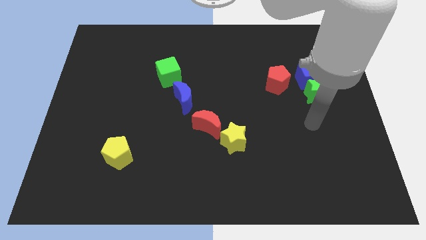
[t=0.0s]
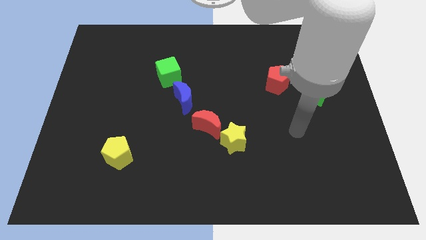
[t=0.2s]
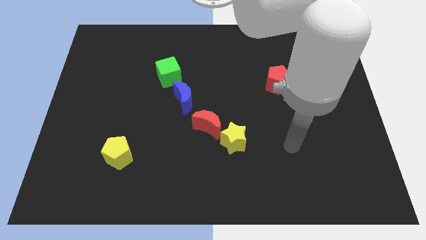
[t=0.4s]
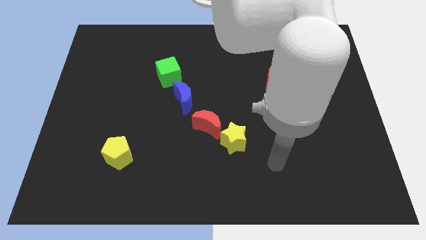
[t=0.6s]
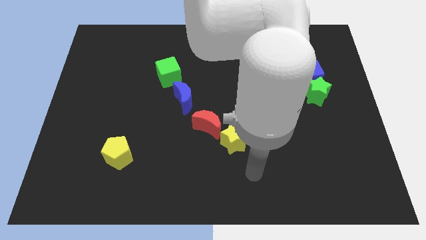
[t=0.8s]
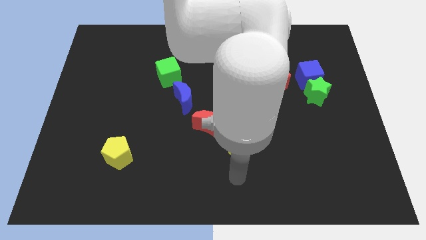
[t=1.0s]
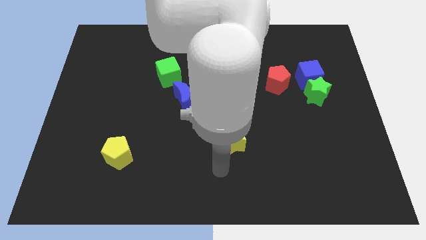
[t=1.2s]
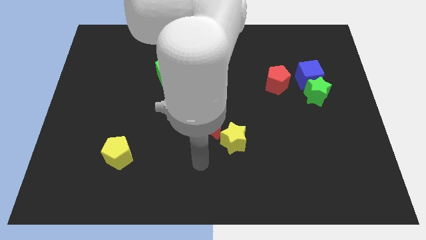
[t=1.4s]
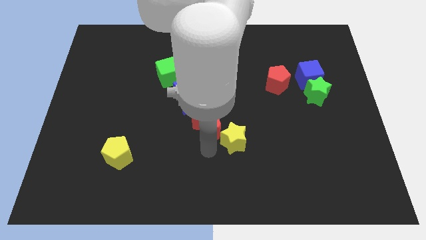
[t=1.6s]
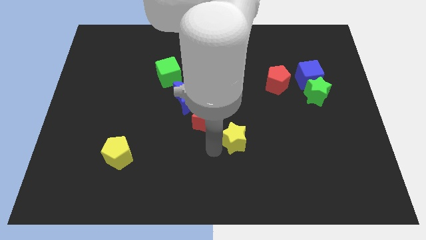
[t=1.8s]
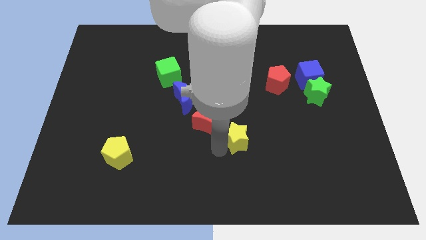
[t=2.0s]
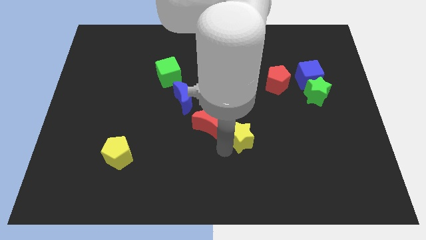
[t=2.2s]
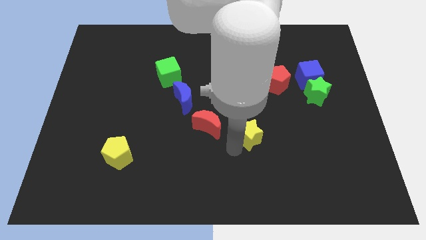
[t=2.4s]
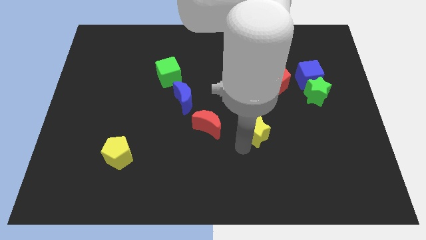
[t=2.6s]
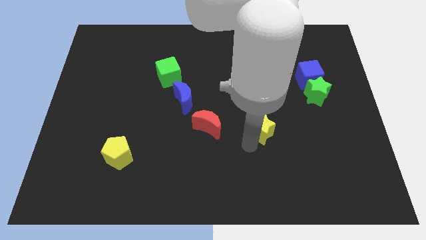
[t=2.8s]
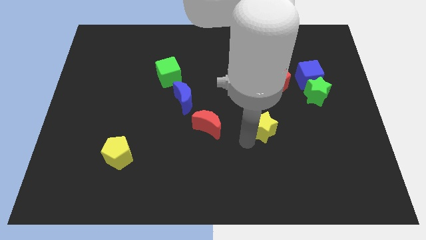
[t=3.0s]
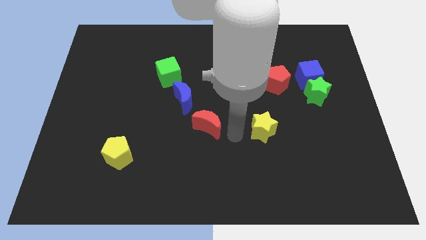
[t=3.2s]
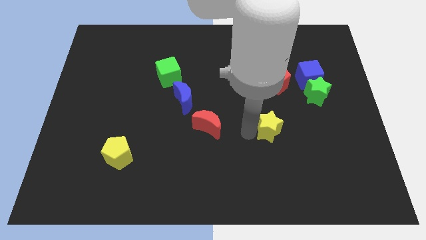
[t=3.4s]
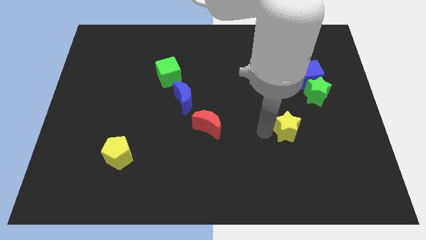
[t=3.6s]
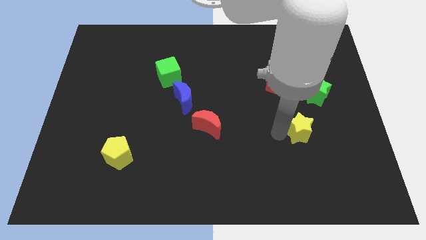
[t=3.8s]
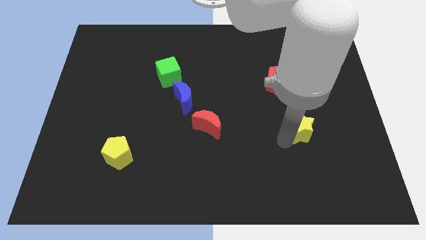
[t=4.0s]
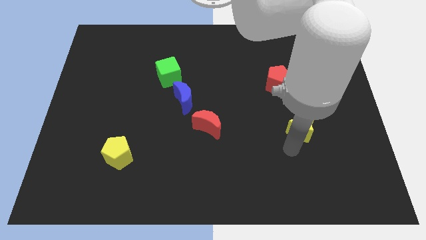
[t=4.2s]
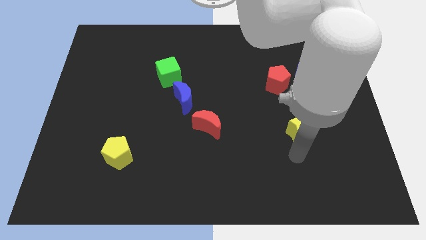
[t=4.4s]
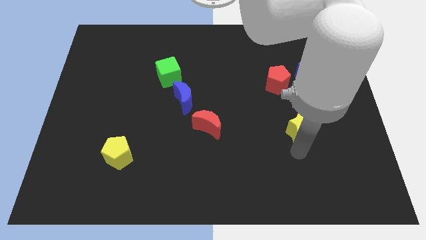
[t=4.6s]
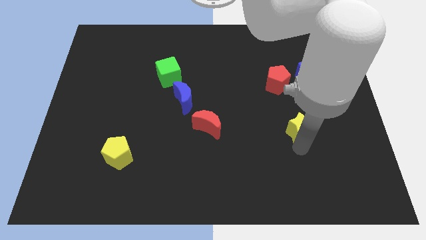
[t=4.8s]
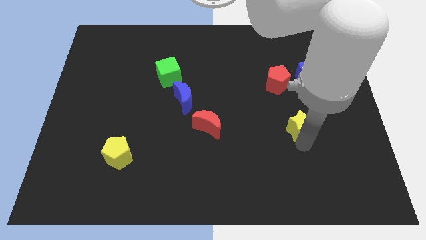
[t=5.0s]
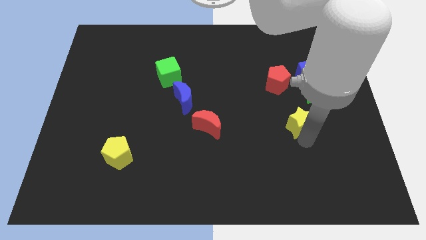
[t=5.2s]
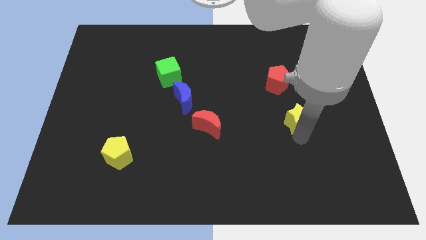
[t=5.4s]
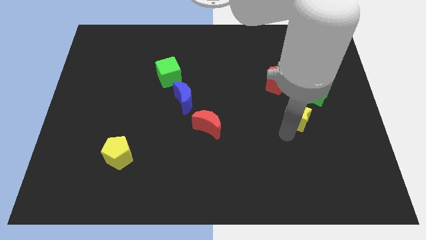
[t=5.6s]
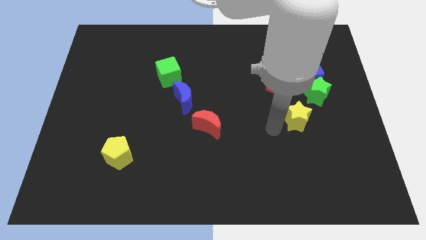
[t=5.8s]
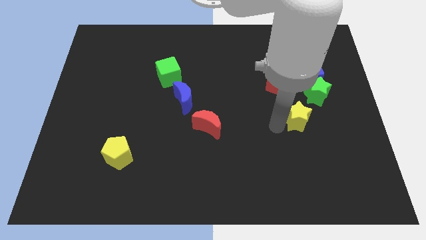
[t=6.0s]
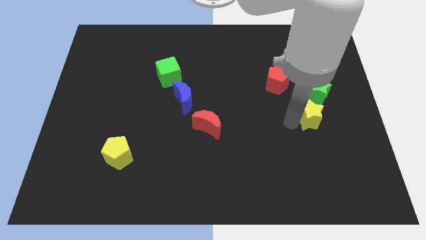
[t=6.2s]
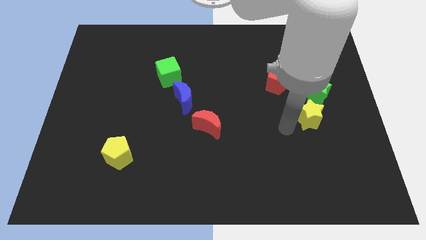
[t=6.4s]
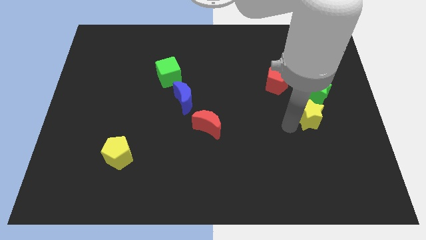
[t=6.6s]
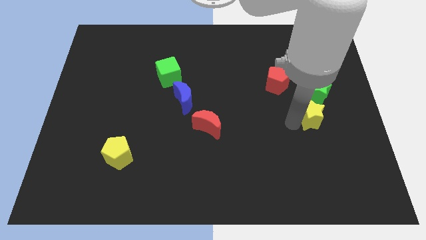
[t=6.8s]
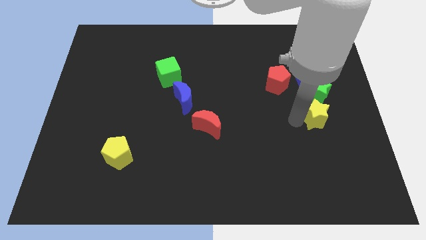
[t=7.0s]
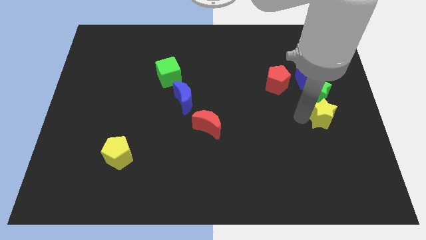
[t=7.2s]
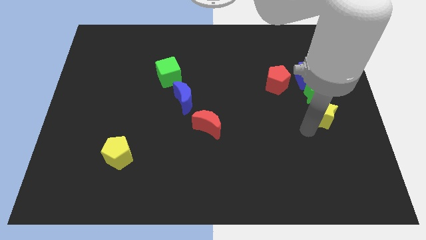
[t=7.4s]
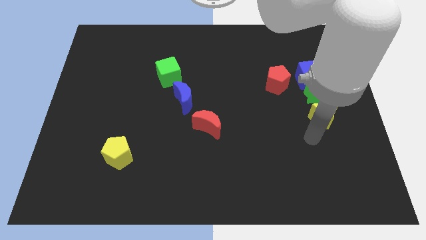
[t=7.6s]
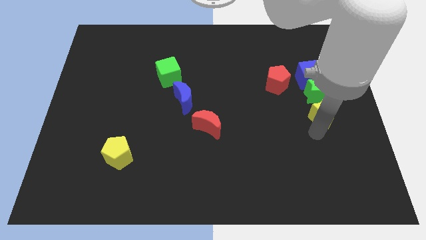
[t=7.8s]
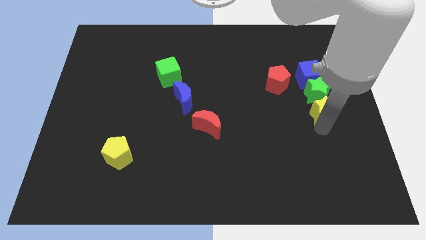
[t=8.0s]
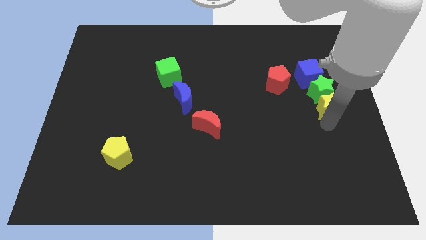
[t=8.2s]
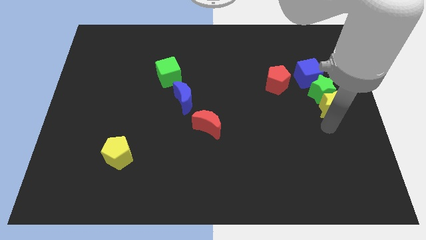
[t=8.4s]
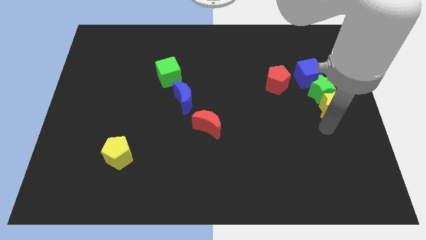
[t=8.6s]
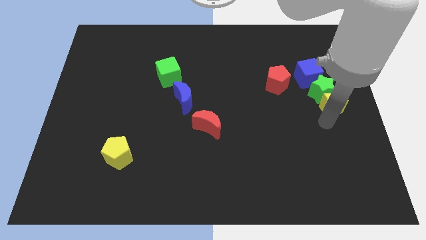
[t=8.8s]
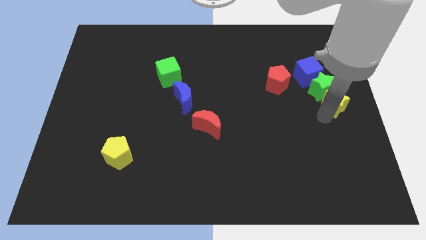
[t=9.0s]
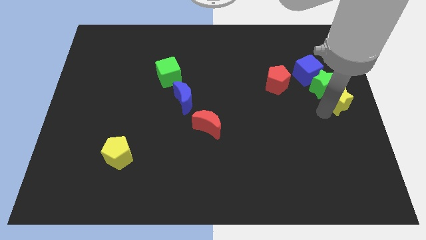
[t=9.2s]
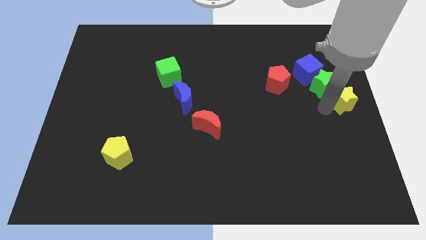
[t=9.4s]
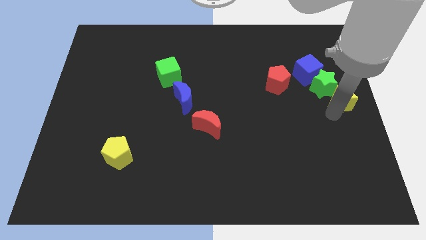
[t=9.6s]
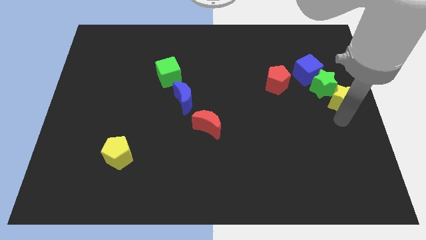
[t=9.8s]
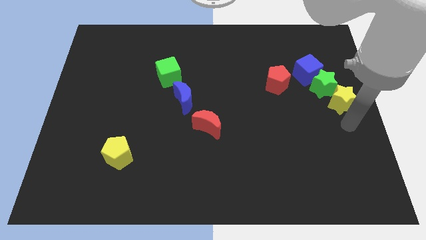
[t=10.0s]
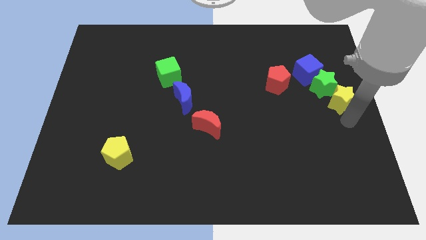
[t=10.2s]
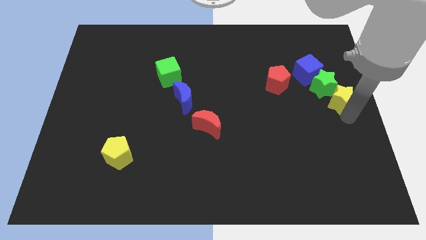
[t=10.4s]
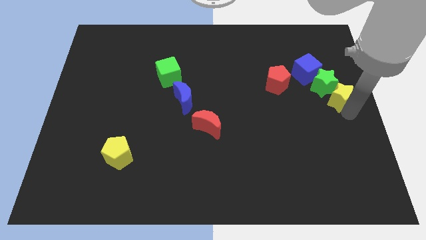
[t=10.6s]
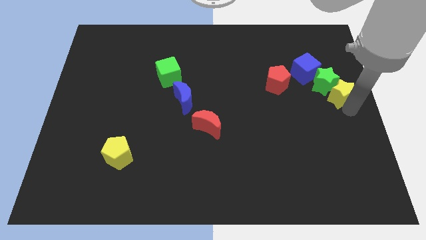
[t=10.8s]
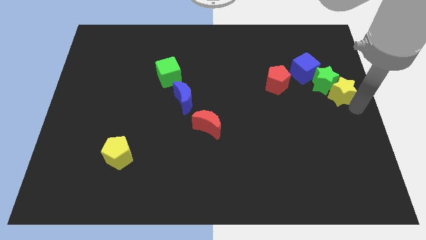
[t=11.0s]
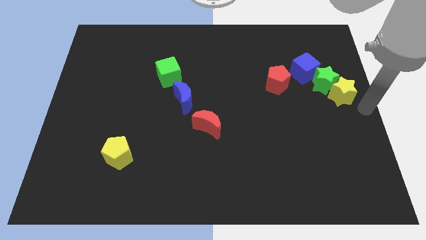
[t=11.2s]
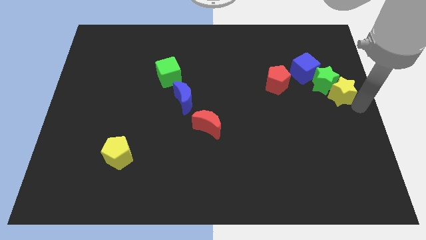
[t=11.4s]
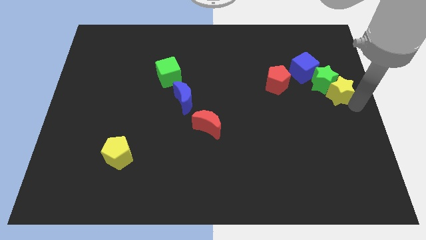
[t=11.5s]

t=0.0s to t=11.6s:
slide the yellow star just right of the red pentagon

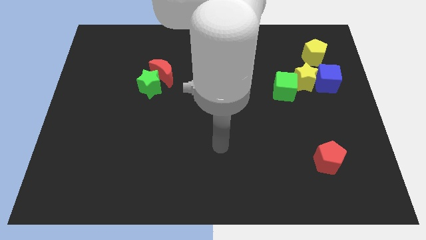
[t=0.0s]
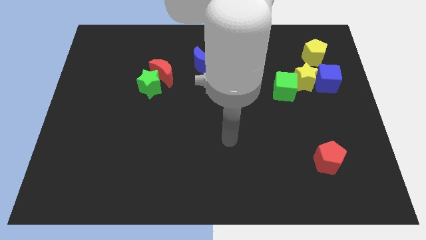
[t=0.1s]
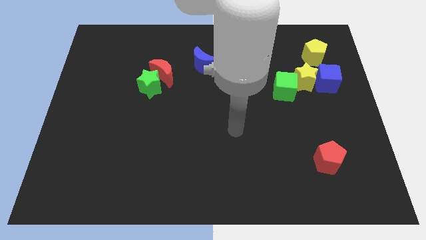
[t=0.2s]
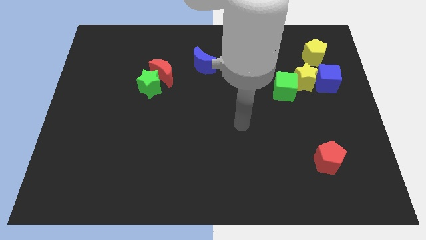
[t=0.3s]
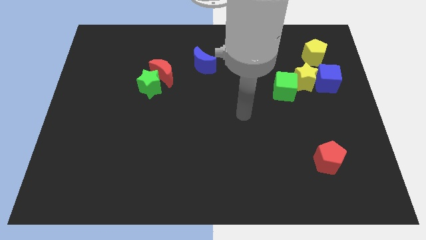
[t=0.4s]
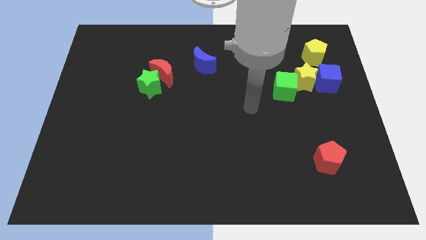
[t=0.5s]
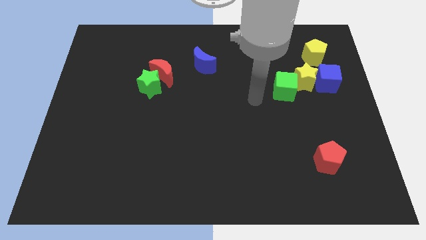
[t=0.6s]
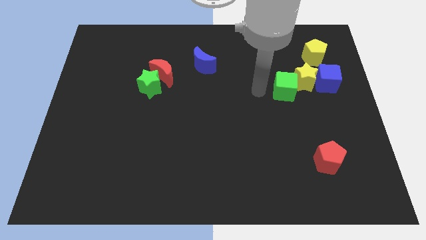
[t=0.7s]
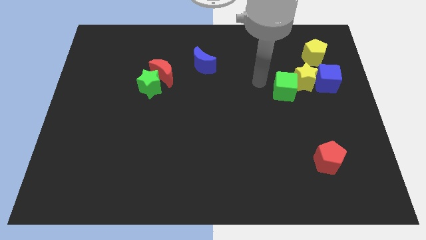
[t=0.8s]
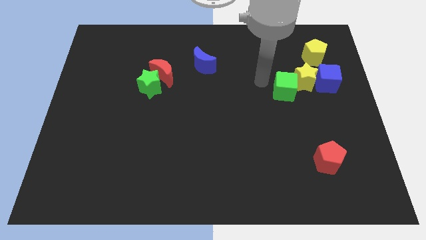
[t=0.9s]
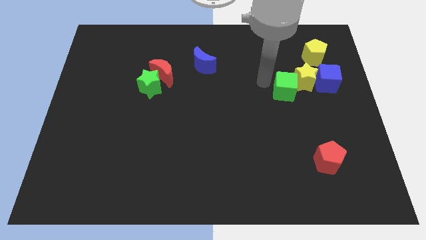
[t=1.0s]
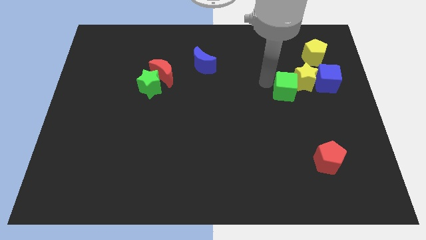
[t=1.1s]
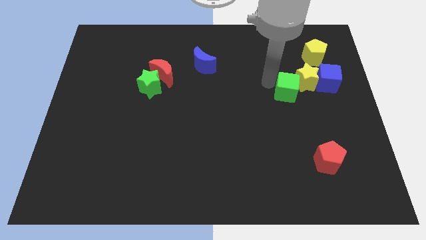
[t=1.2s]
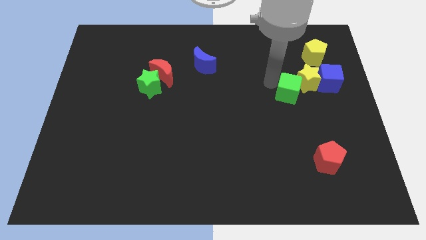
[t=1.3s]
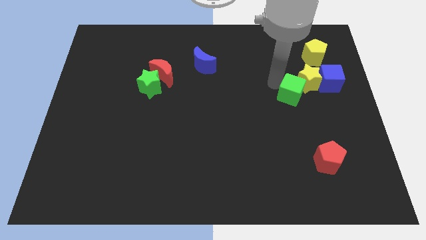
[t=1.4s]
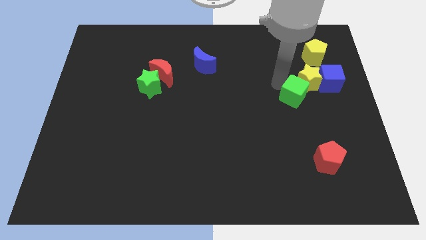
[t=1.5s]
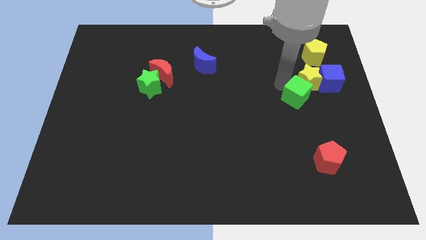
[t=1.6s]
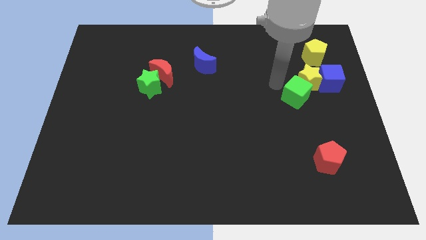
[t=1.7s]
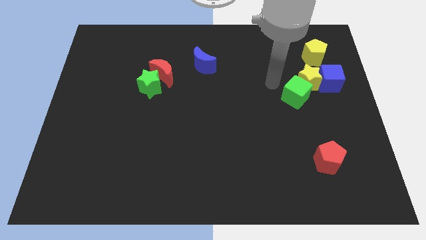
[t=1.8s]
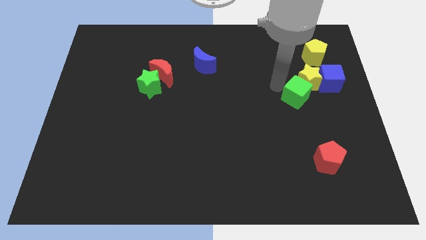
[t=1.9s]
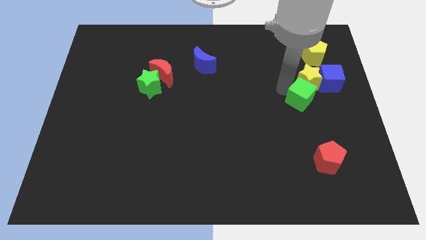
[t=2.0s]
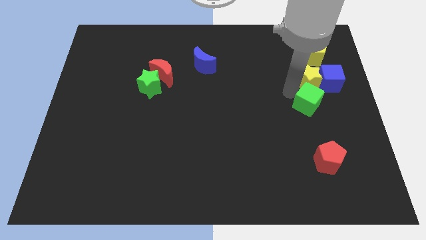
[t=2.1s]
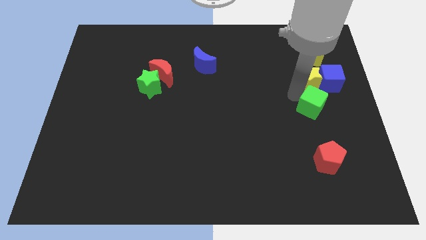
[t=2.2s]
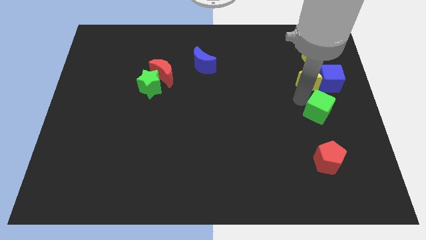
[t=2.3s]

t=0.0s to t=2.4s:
move the green cube below the blue cube
